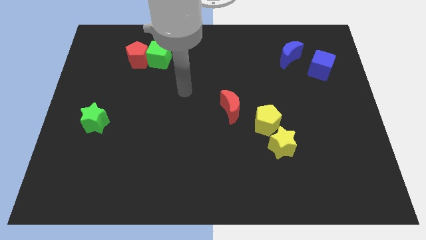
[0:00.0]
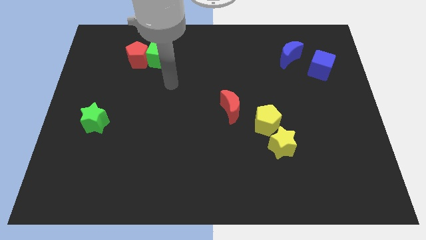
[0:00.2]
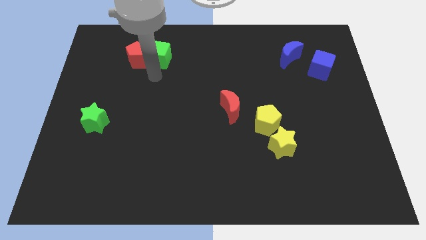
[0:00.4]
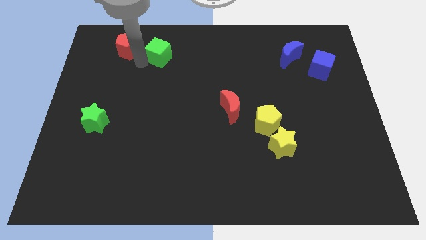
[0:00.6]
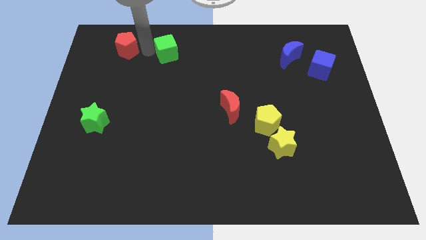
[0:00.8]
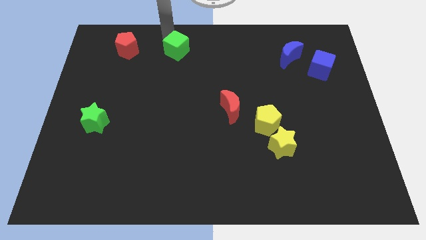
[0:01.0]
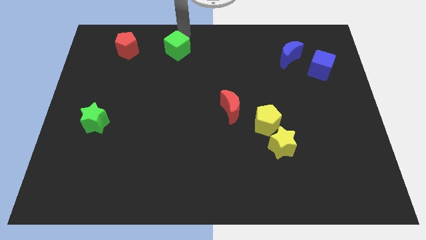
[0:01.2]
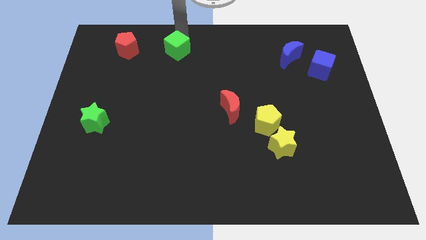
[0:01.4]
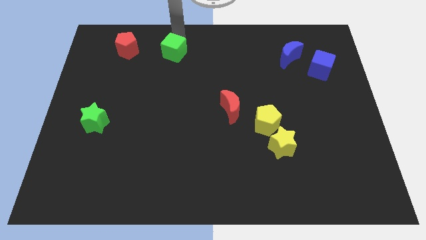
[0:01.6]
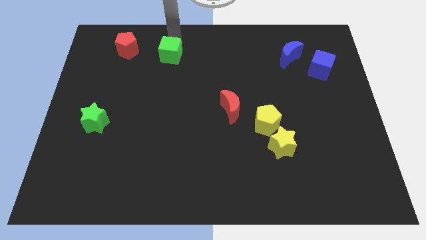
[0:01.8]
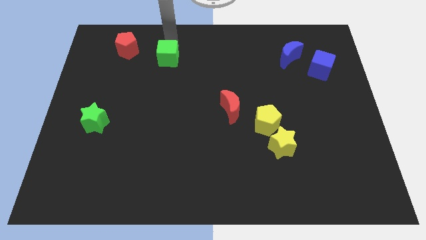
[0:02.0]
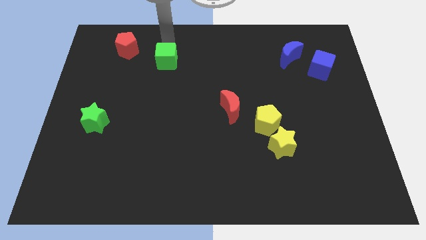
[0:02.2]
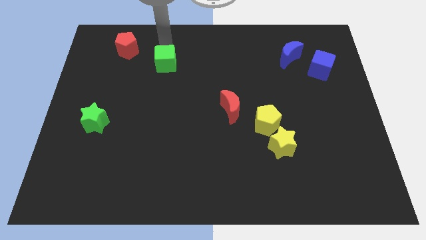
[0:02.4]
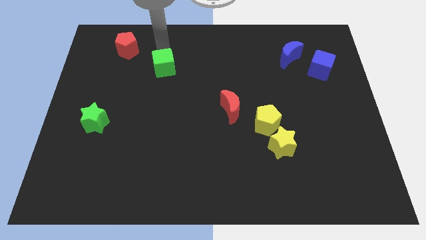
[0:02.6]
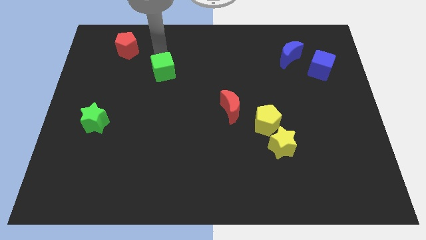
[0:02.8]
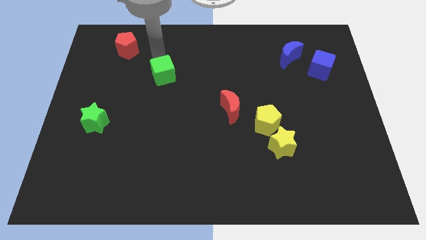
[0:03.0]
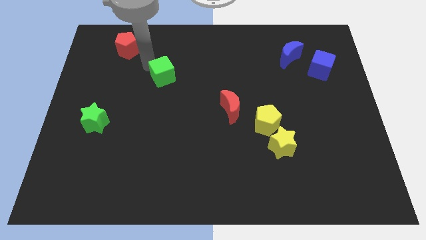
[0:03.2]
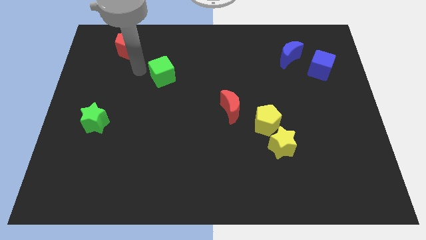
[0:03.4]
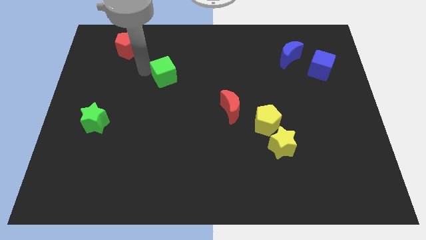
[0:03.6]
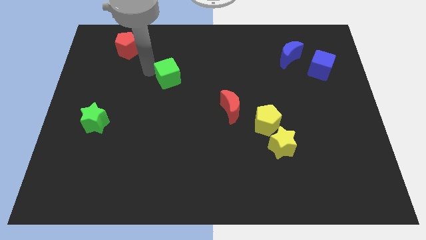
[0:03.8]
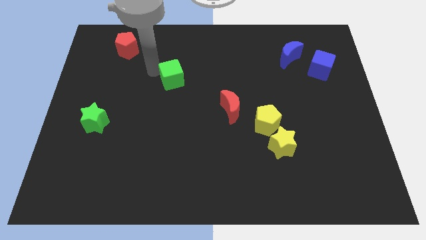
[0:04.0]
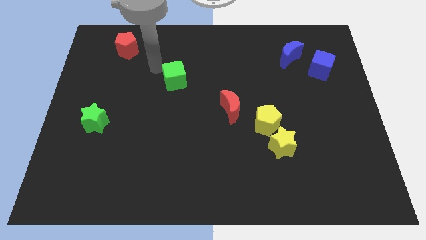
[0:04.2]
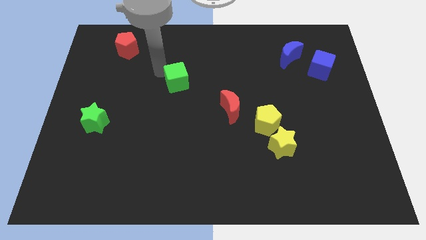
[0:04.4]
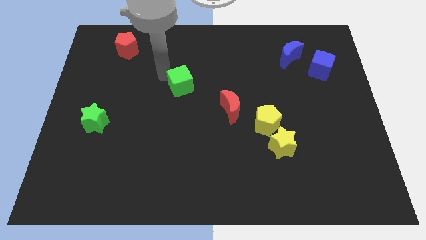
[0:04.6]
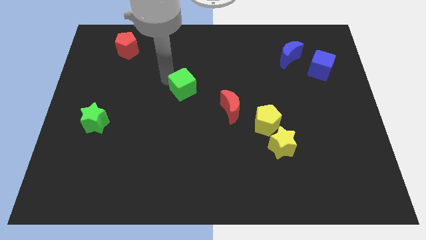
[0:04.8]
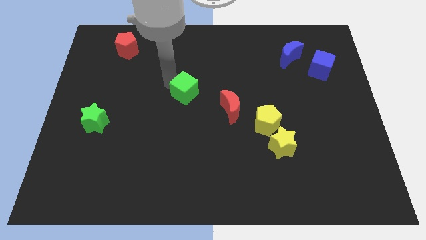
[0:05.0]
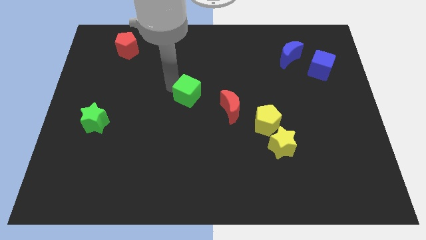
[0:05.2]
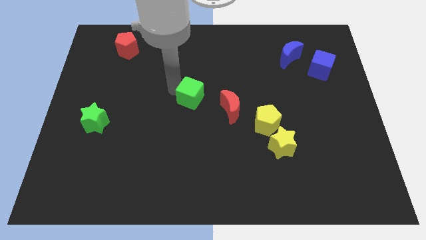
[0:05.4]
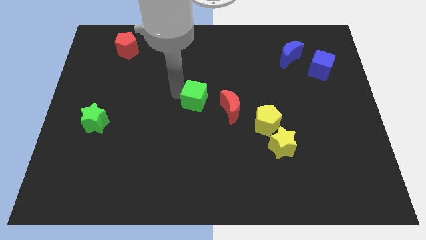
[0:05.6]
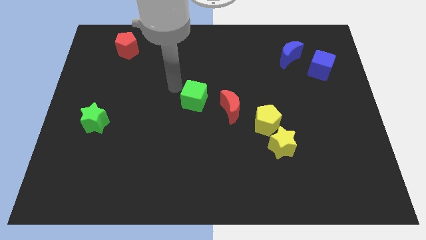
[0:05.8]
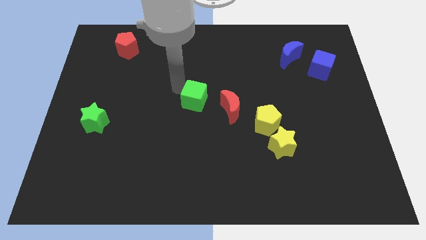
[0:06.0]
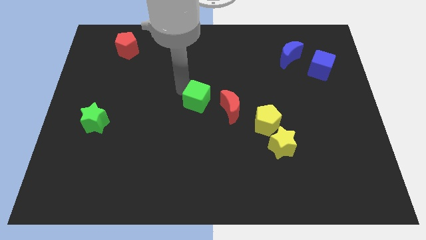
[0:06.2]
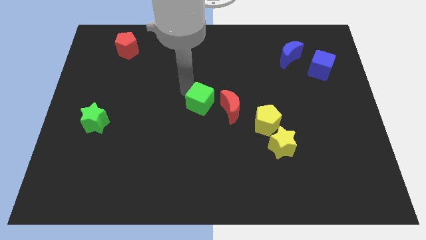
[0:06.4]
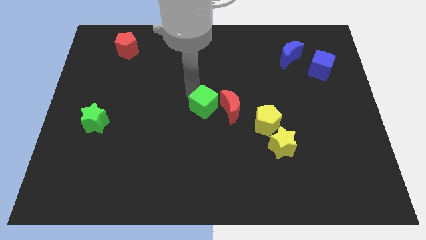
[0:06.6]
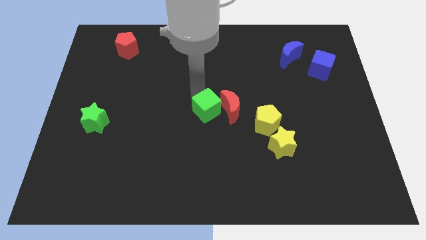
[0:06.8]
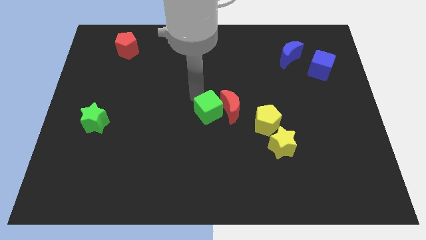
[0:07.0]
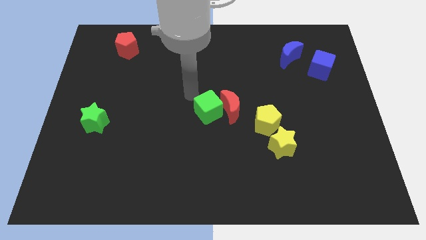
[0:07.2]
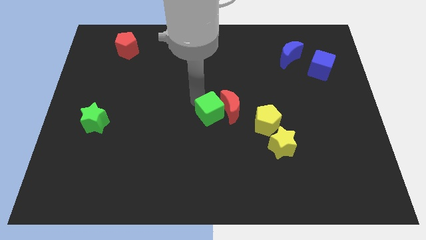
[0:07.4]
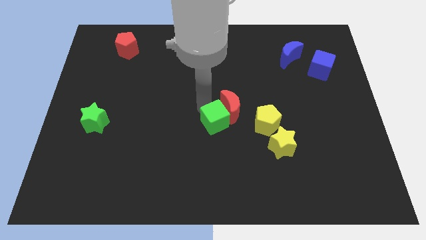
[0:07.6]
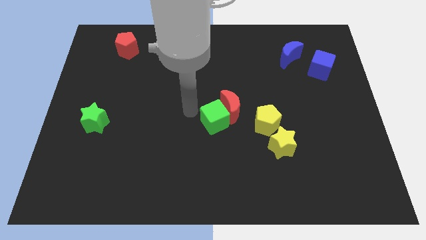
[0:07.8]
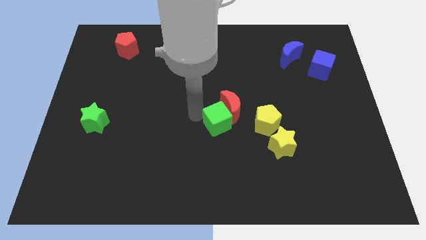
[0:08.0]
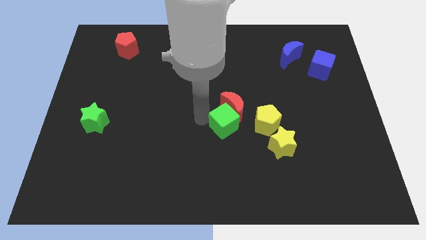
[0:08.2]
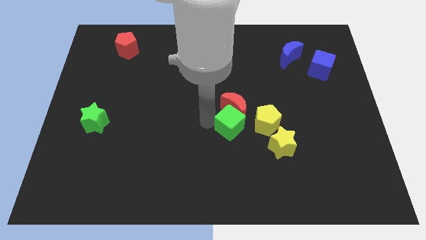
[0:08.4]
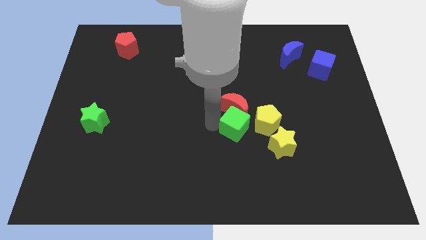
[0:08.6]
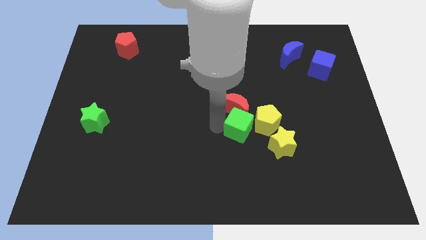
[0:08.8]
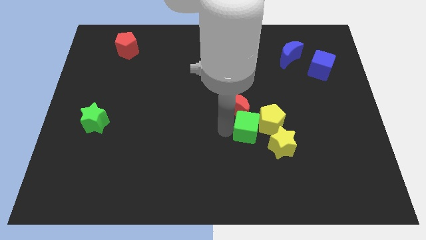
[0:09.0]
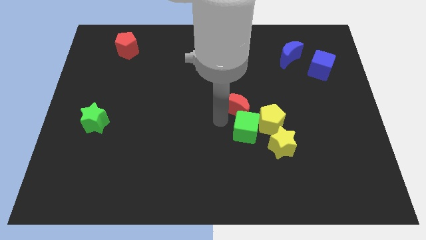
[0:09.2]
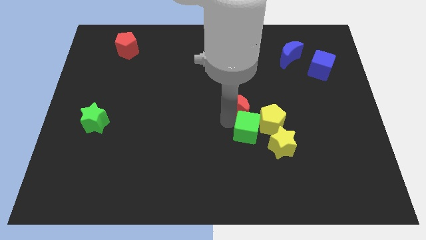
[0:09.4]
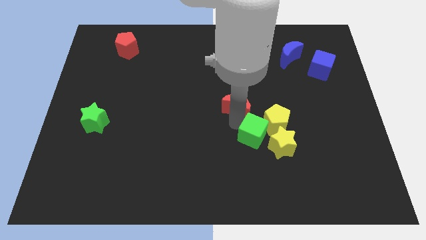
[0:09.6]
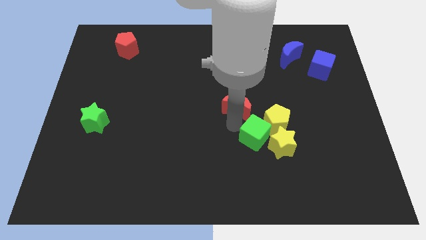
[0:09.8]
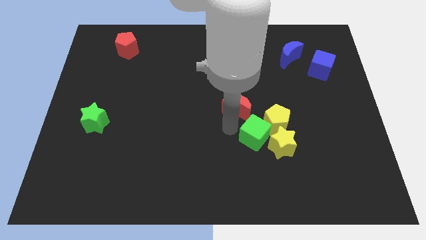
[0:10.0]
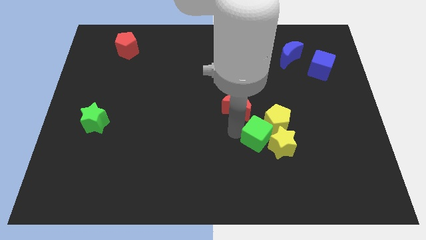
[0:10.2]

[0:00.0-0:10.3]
move the green cube towards the yellow star

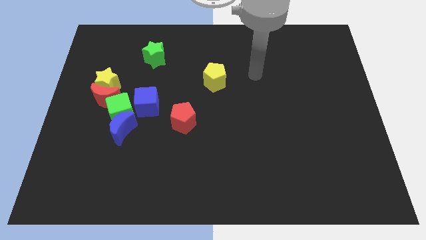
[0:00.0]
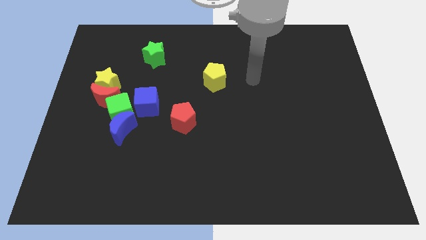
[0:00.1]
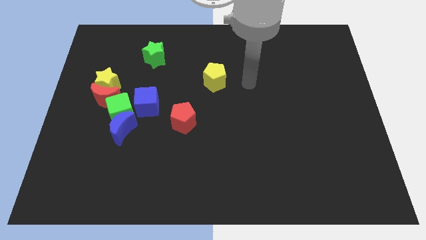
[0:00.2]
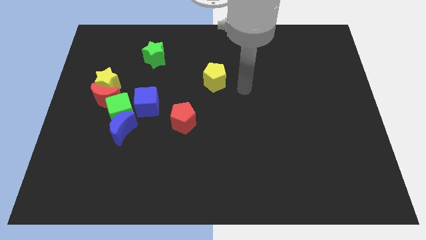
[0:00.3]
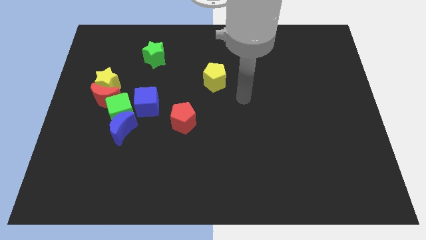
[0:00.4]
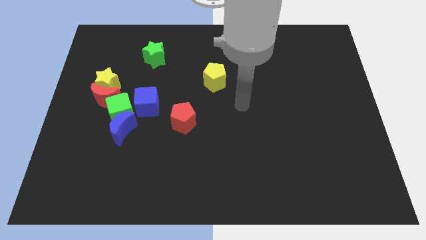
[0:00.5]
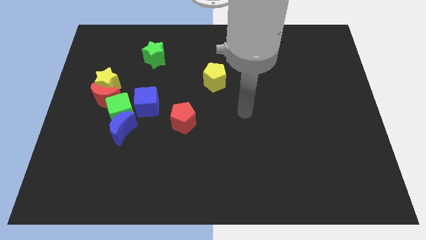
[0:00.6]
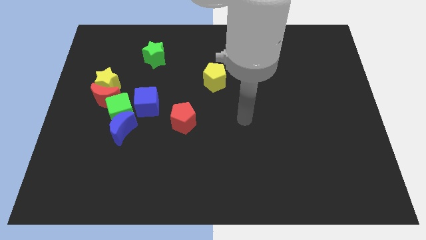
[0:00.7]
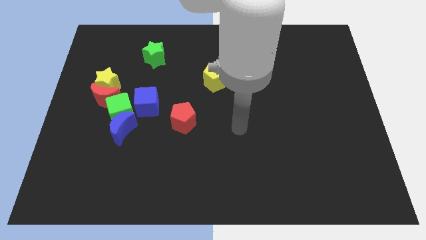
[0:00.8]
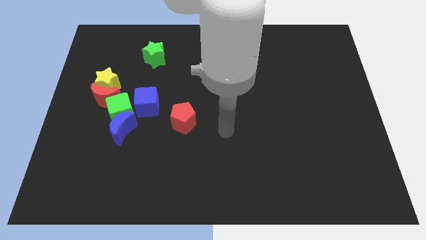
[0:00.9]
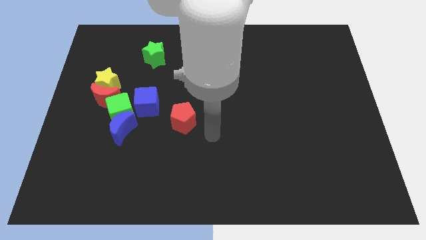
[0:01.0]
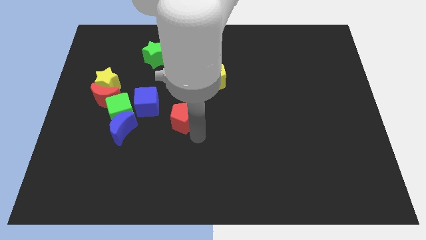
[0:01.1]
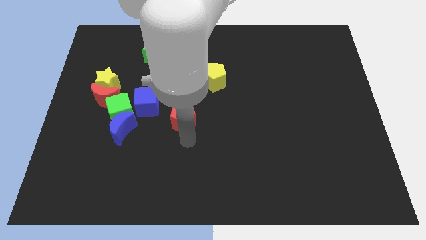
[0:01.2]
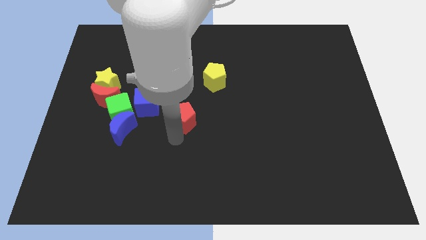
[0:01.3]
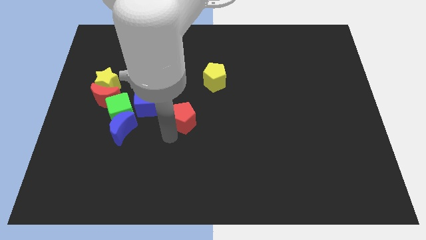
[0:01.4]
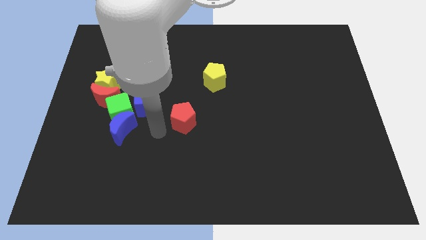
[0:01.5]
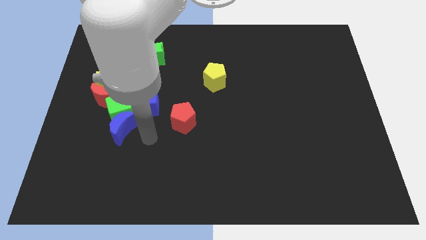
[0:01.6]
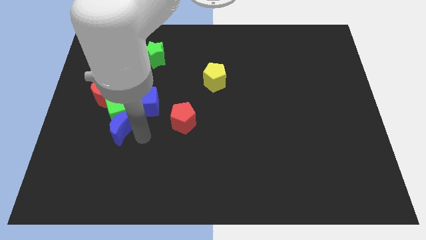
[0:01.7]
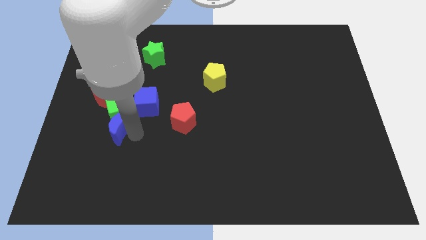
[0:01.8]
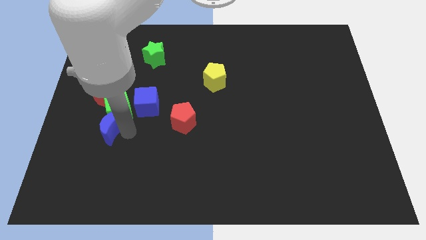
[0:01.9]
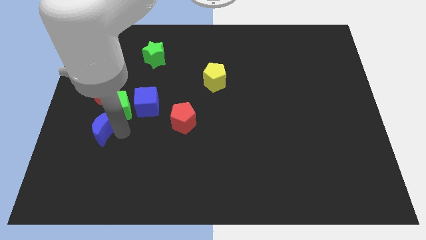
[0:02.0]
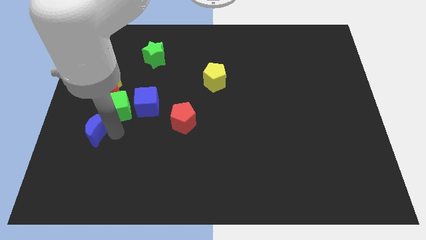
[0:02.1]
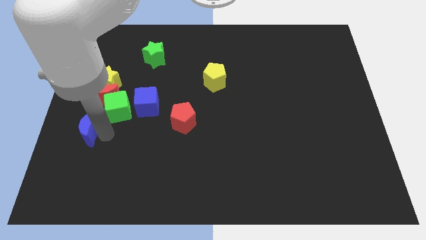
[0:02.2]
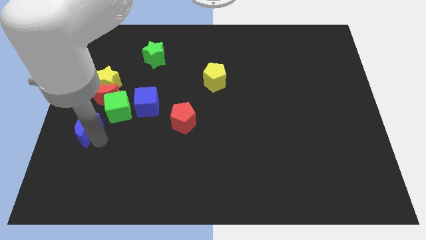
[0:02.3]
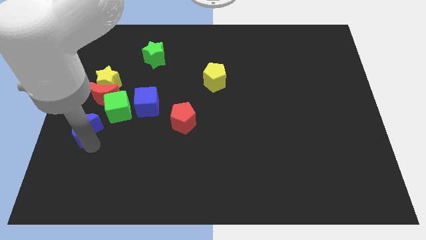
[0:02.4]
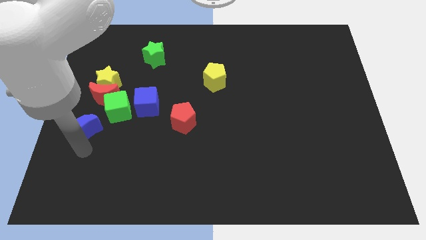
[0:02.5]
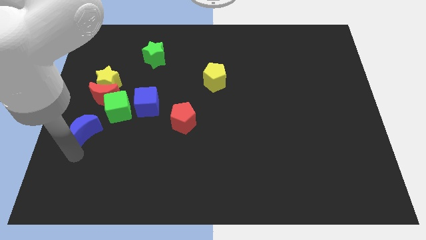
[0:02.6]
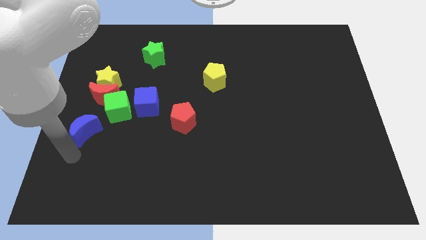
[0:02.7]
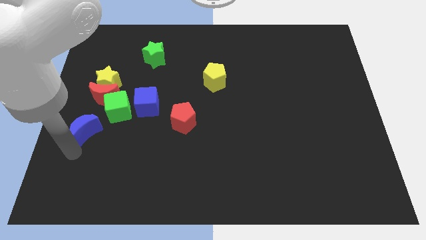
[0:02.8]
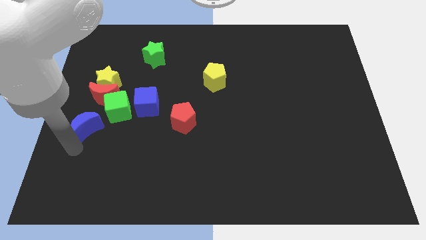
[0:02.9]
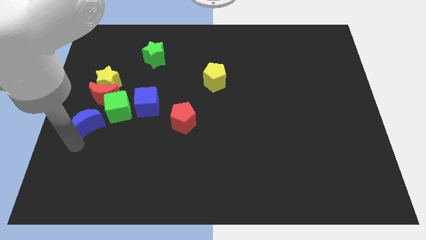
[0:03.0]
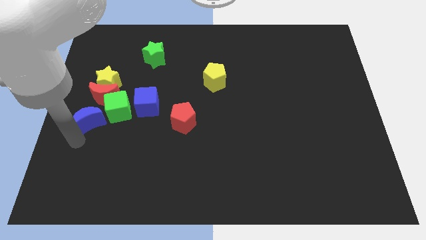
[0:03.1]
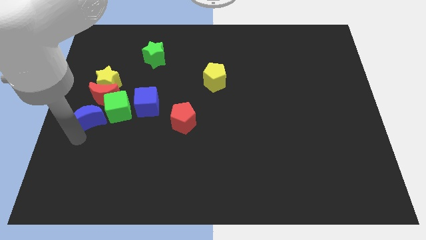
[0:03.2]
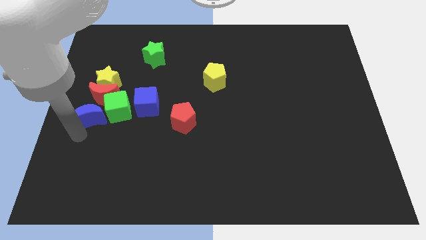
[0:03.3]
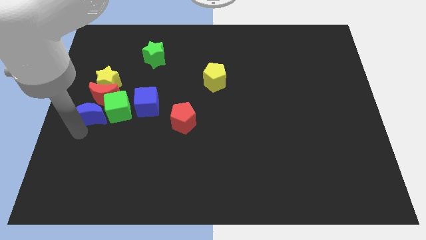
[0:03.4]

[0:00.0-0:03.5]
move the blue moon next to the red moon
